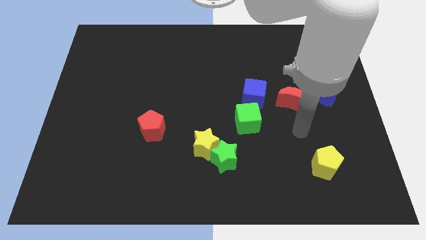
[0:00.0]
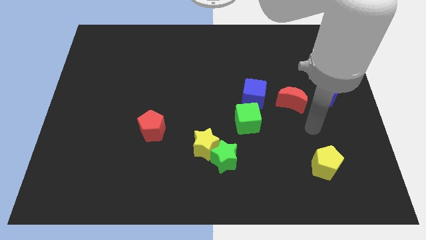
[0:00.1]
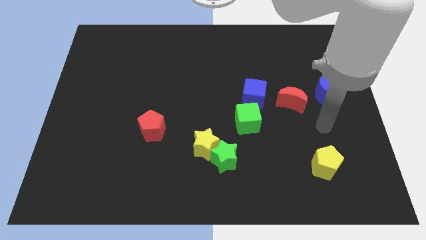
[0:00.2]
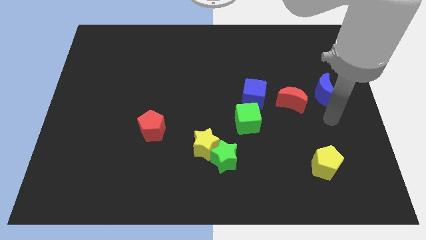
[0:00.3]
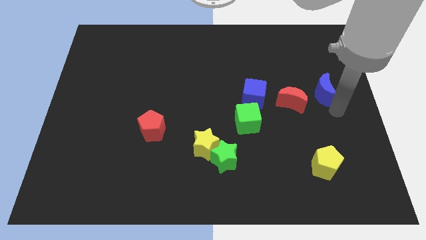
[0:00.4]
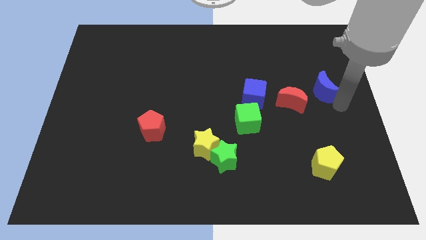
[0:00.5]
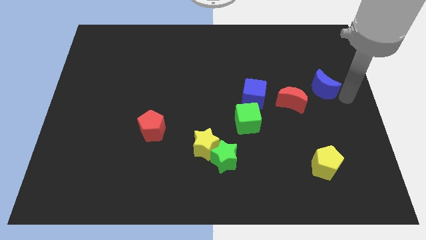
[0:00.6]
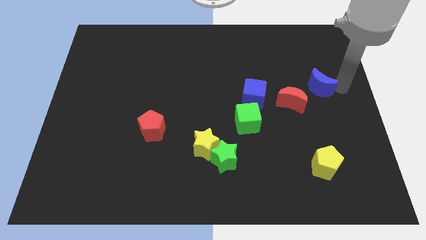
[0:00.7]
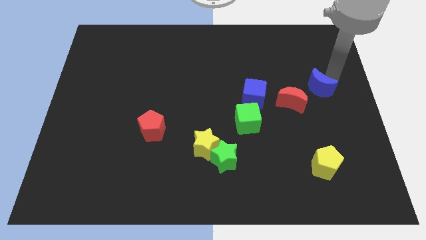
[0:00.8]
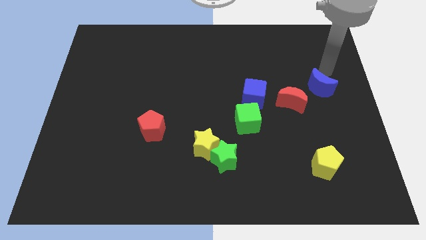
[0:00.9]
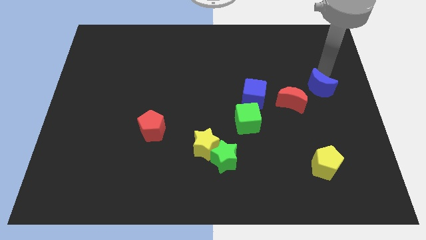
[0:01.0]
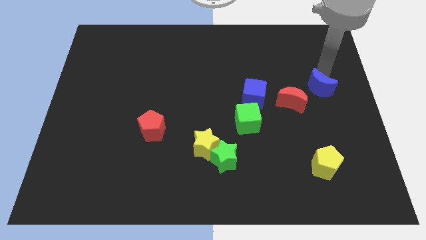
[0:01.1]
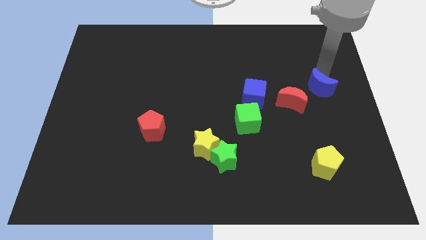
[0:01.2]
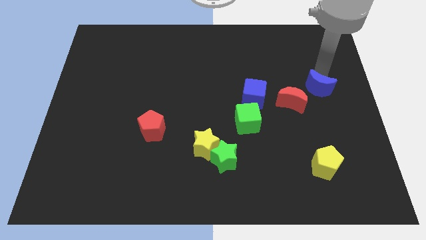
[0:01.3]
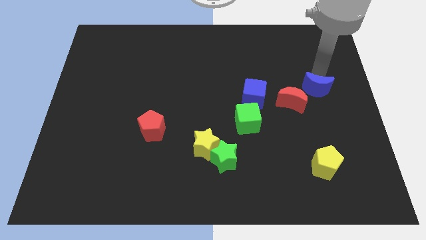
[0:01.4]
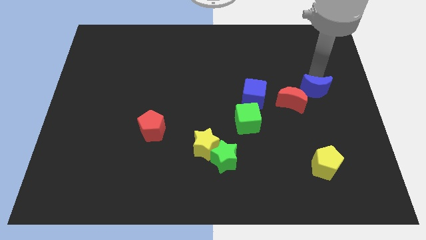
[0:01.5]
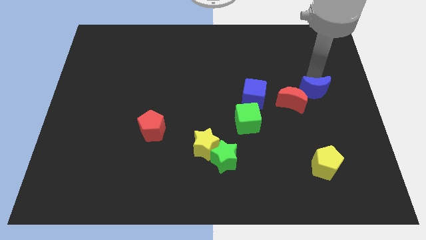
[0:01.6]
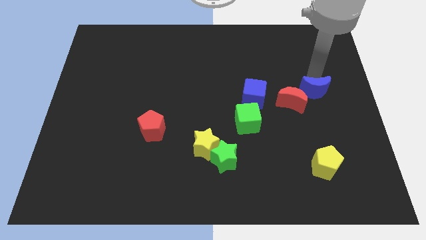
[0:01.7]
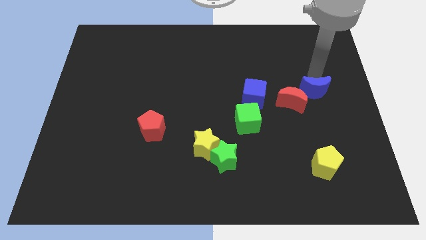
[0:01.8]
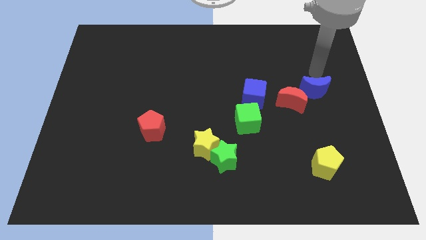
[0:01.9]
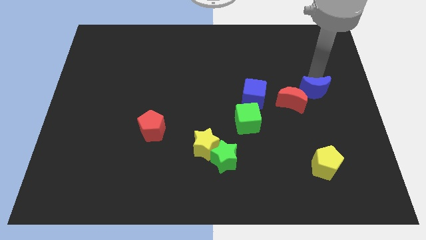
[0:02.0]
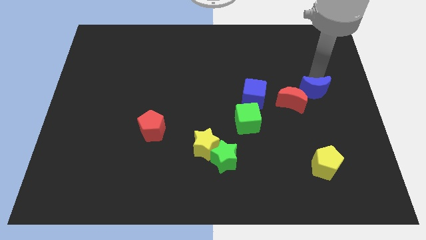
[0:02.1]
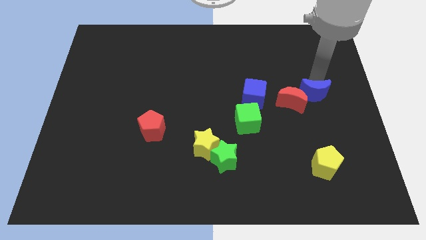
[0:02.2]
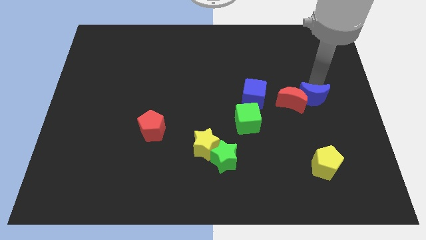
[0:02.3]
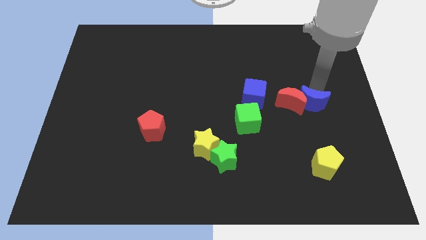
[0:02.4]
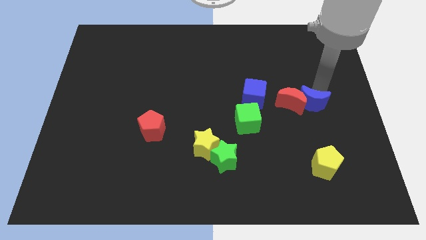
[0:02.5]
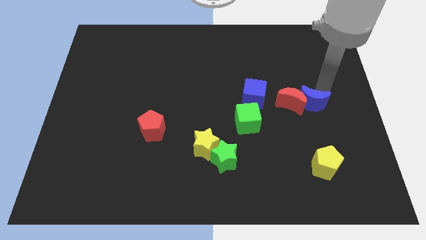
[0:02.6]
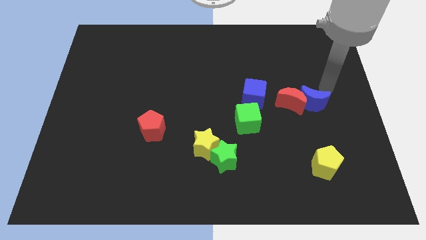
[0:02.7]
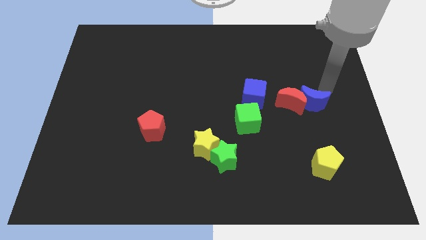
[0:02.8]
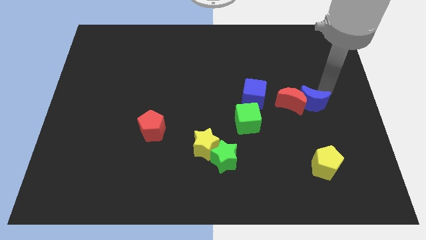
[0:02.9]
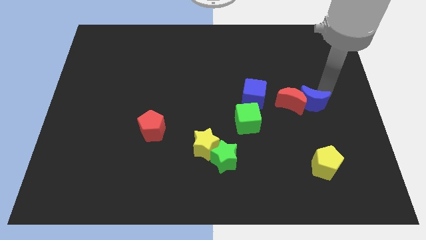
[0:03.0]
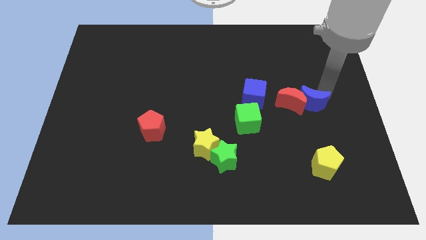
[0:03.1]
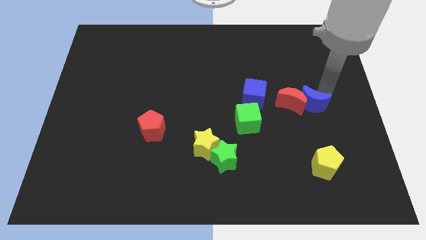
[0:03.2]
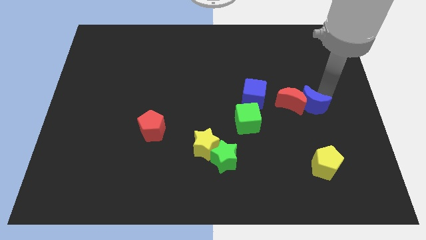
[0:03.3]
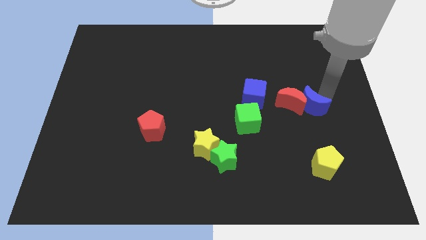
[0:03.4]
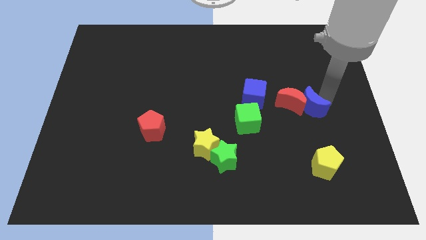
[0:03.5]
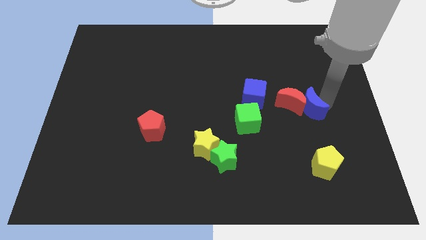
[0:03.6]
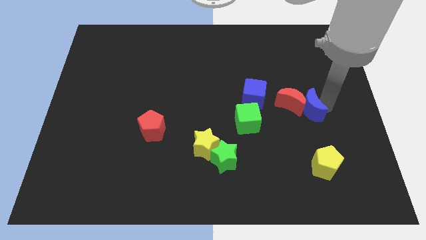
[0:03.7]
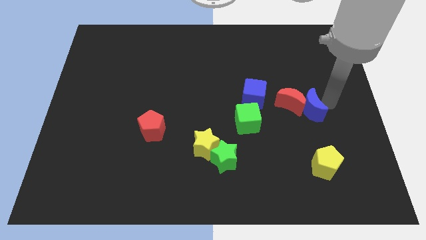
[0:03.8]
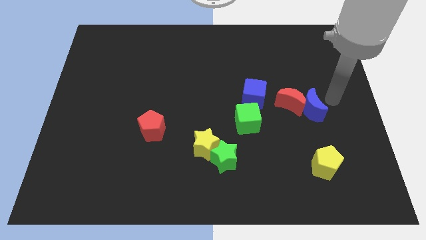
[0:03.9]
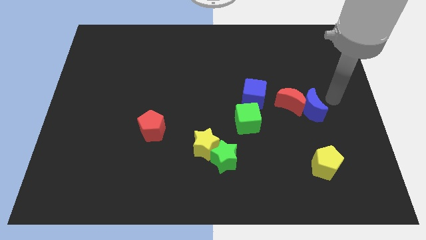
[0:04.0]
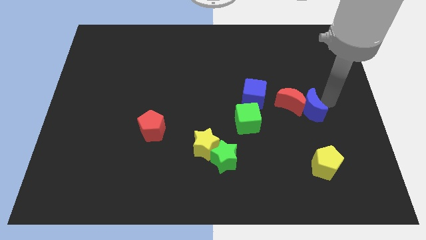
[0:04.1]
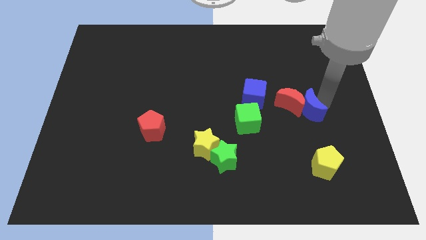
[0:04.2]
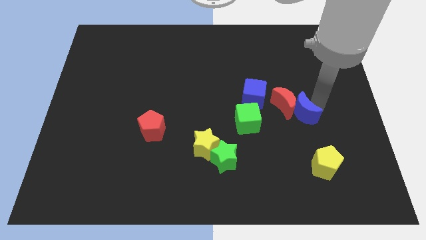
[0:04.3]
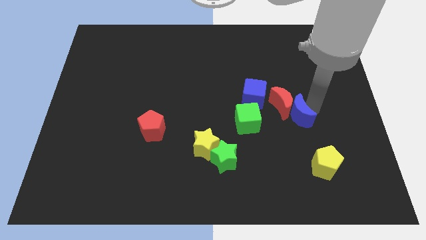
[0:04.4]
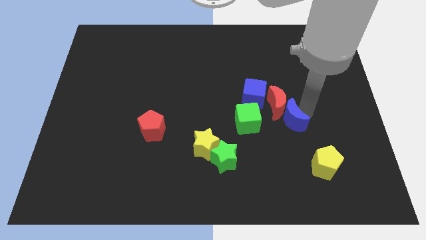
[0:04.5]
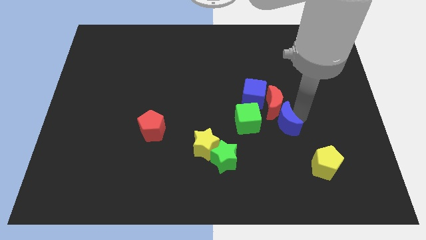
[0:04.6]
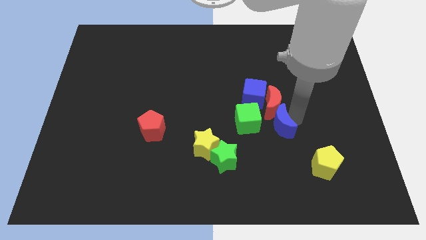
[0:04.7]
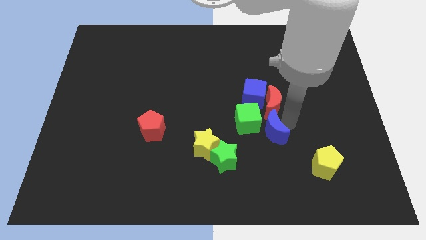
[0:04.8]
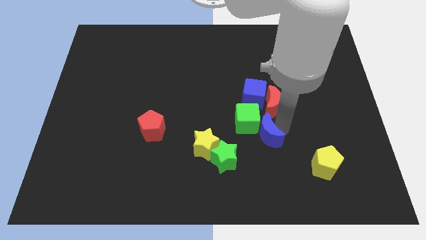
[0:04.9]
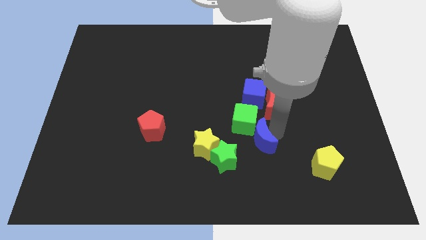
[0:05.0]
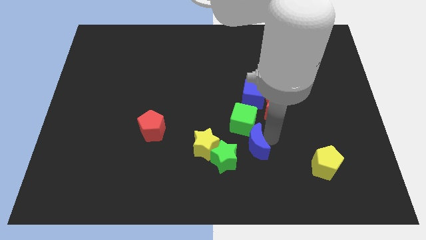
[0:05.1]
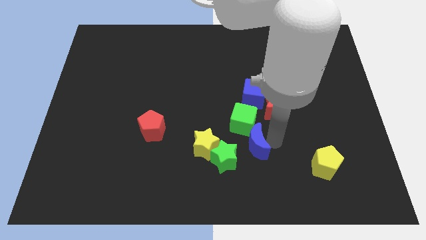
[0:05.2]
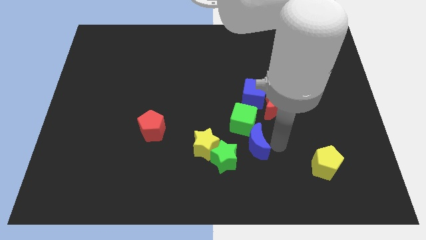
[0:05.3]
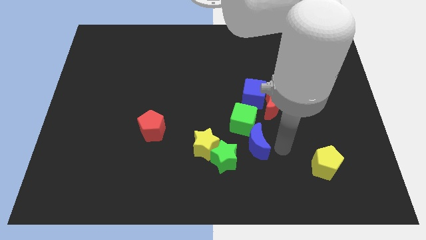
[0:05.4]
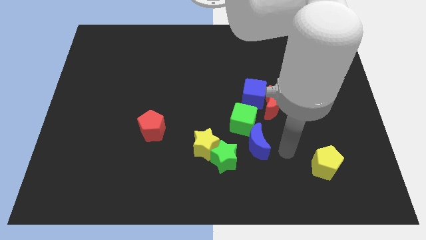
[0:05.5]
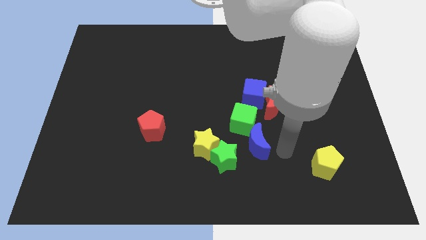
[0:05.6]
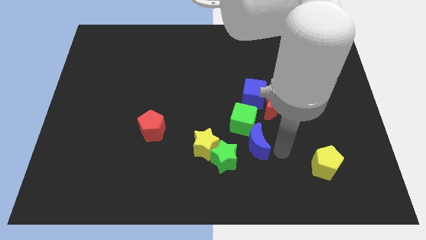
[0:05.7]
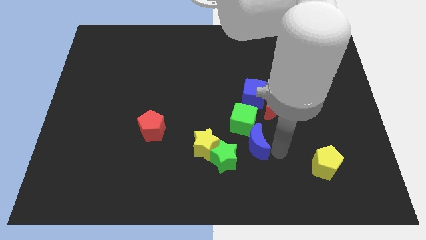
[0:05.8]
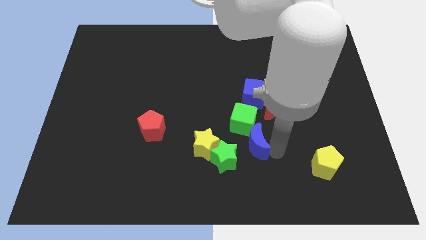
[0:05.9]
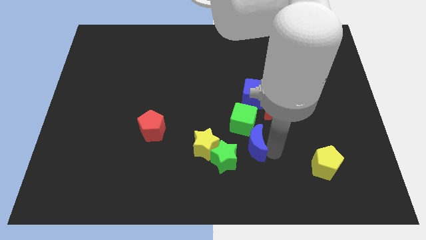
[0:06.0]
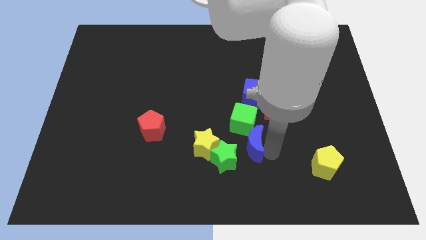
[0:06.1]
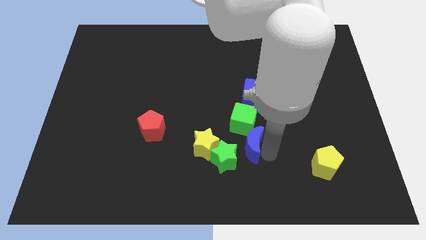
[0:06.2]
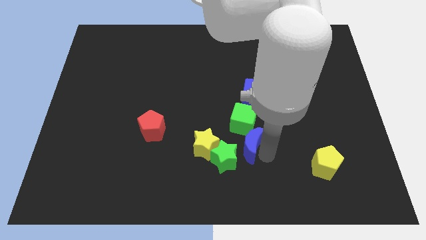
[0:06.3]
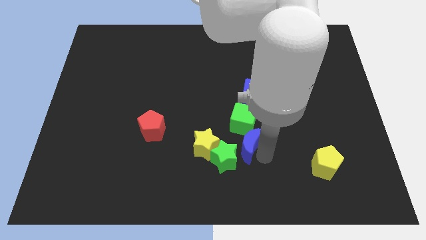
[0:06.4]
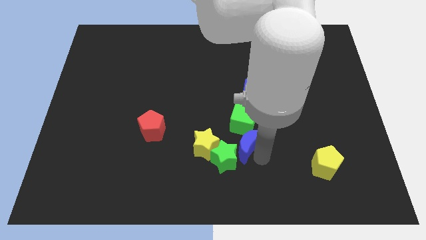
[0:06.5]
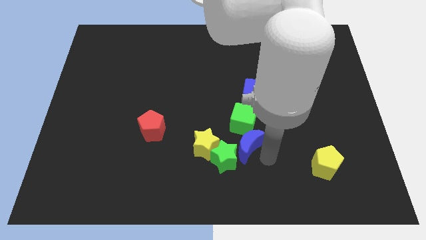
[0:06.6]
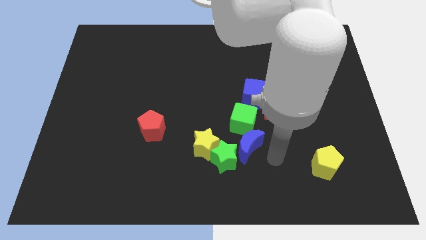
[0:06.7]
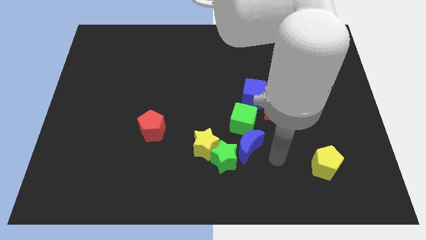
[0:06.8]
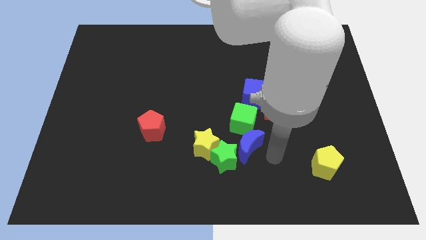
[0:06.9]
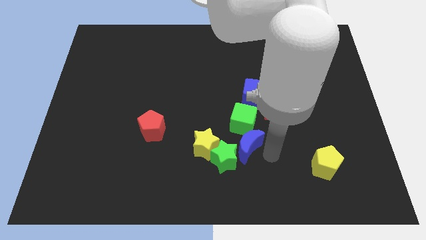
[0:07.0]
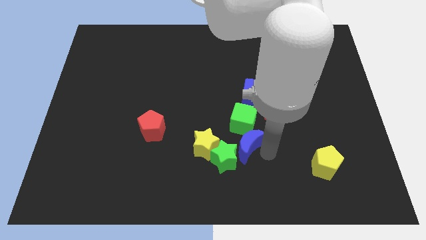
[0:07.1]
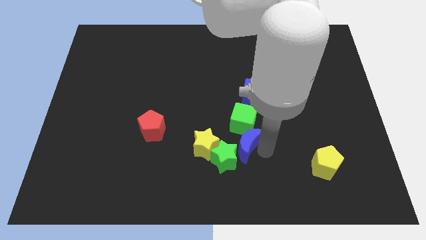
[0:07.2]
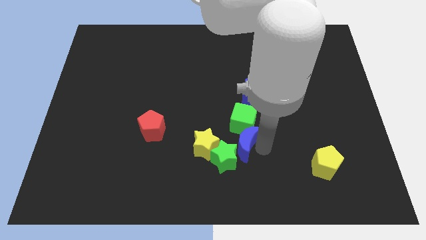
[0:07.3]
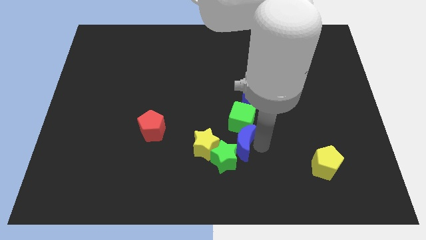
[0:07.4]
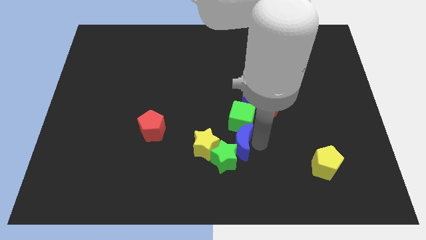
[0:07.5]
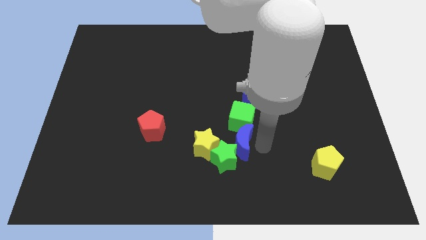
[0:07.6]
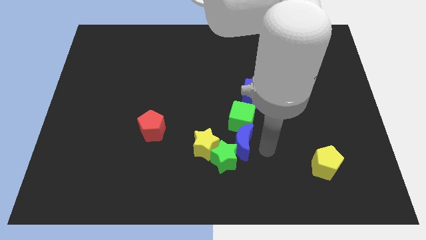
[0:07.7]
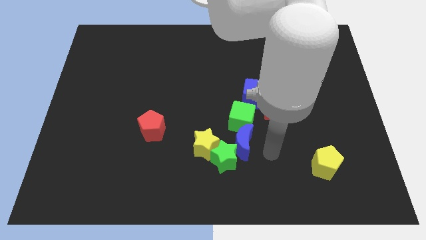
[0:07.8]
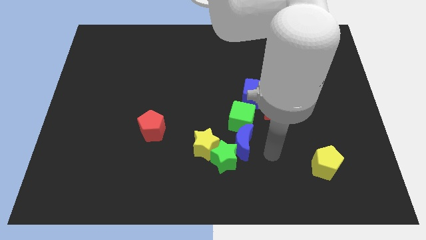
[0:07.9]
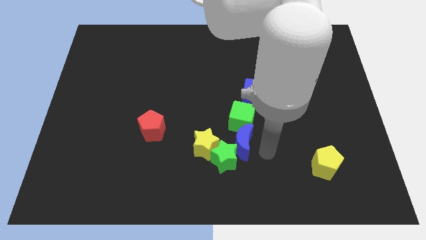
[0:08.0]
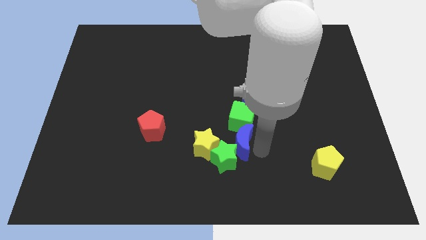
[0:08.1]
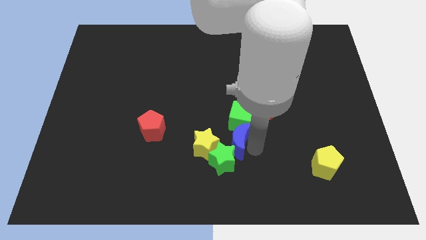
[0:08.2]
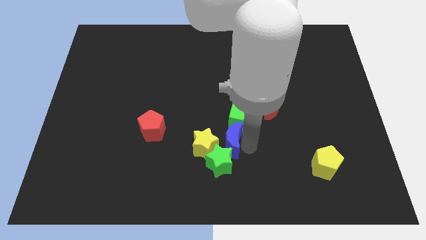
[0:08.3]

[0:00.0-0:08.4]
push the blue moon towards the yellow star
